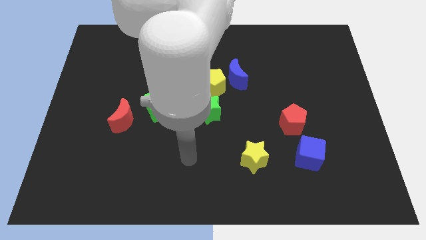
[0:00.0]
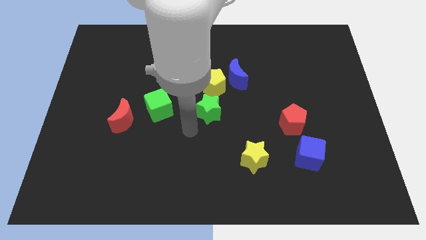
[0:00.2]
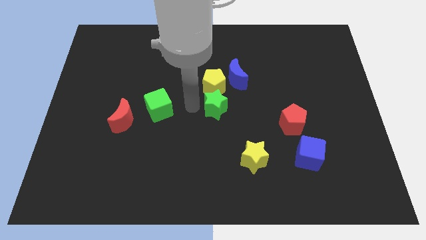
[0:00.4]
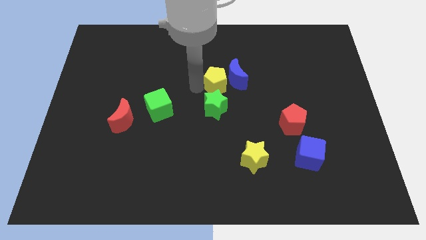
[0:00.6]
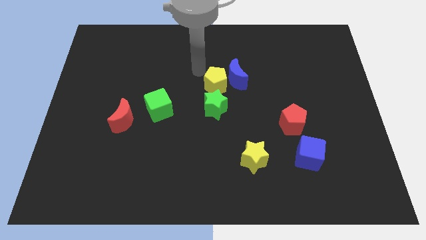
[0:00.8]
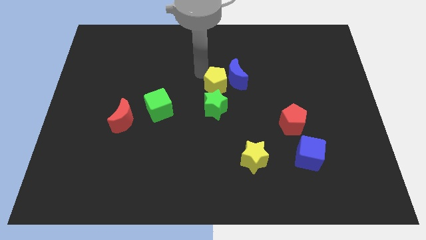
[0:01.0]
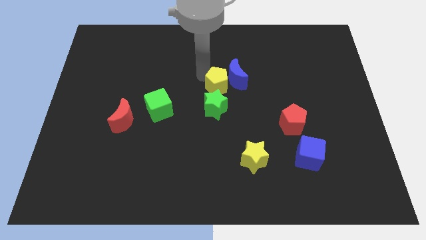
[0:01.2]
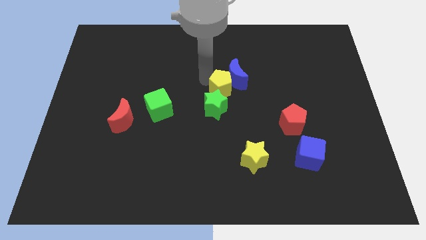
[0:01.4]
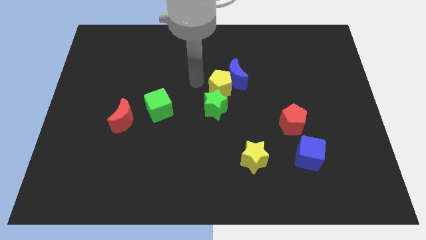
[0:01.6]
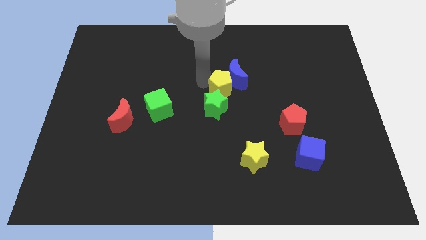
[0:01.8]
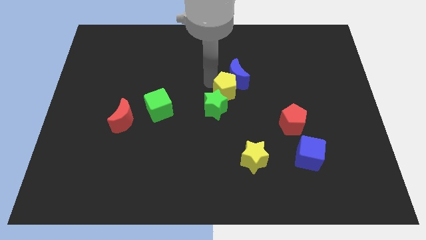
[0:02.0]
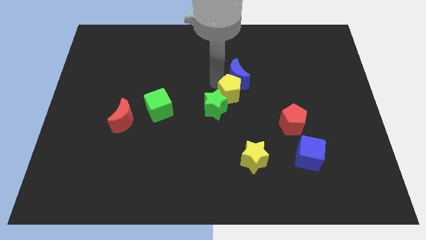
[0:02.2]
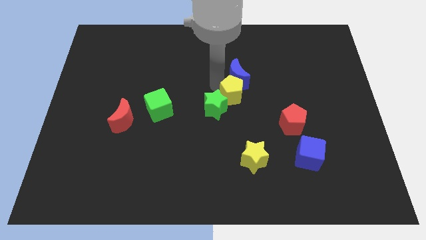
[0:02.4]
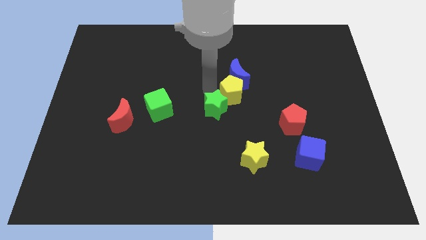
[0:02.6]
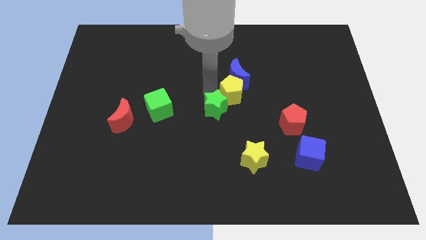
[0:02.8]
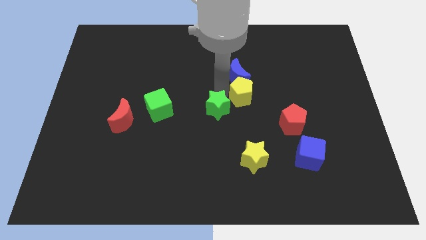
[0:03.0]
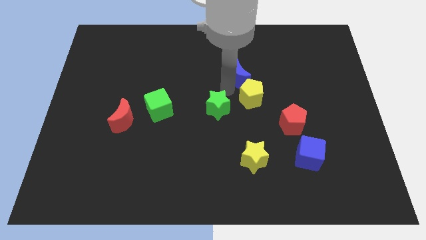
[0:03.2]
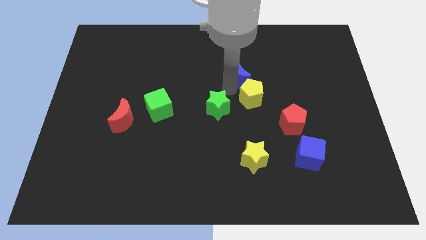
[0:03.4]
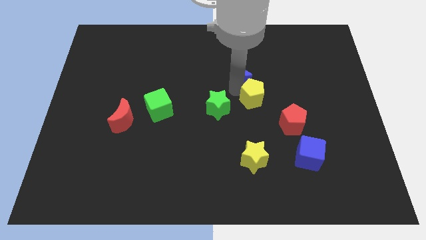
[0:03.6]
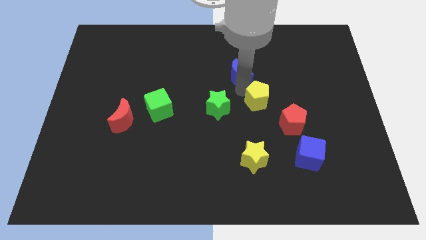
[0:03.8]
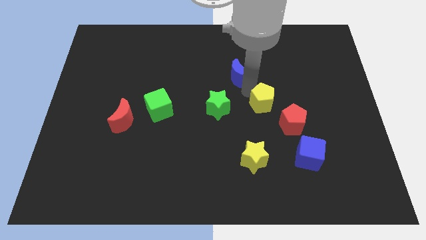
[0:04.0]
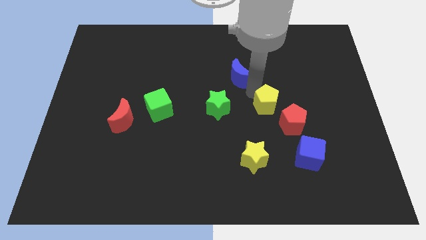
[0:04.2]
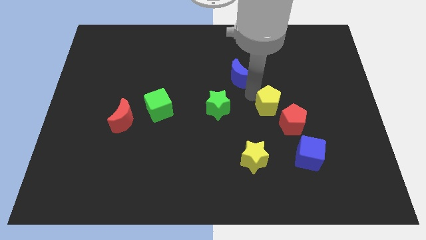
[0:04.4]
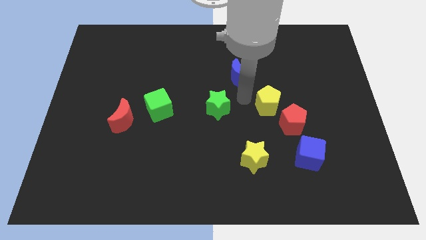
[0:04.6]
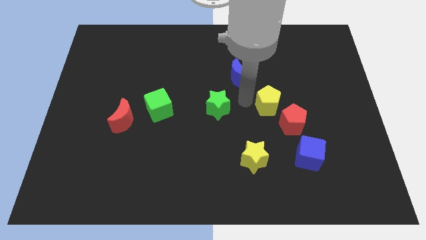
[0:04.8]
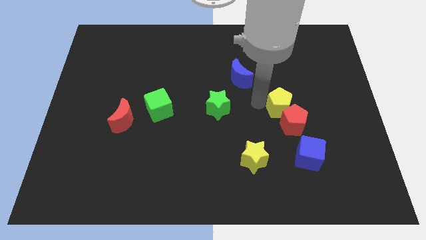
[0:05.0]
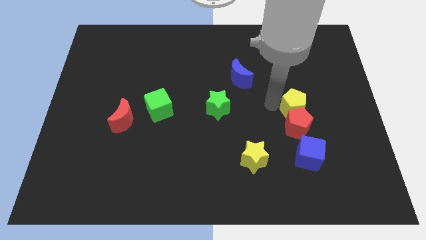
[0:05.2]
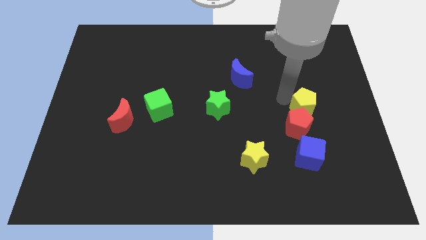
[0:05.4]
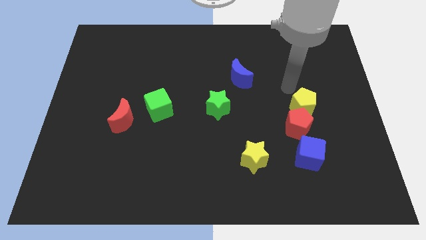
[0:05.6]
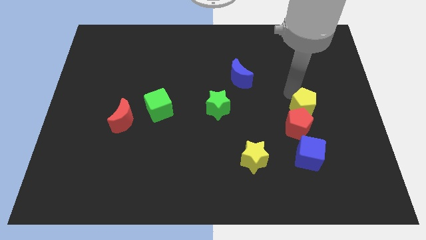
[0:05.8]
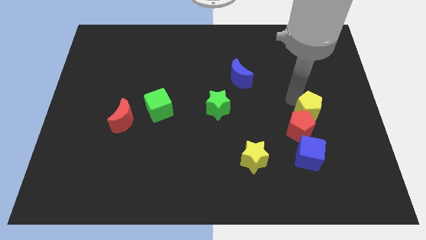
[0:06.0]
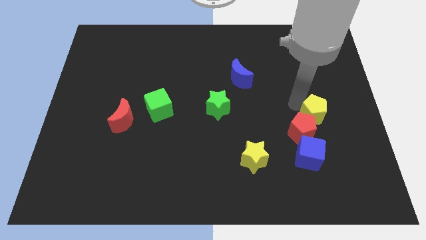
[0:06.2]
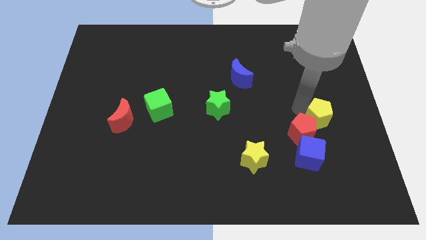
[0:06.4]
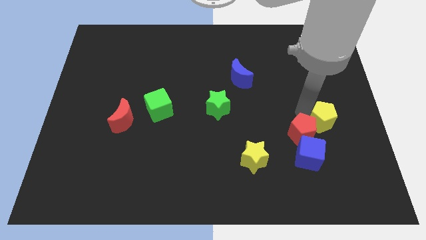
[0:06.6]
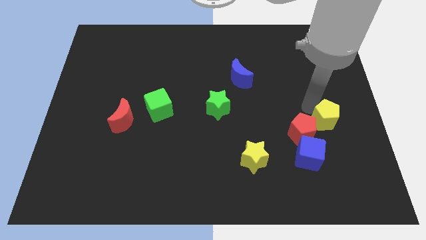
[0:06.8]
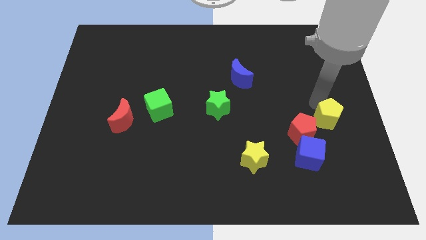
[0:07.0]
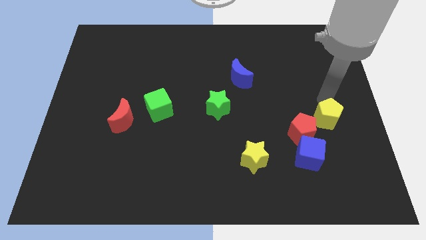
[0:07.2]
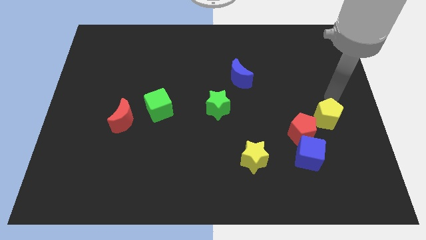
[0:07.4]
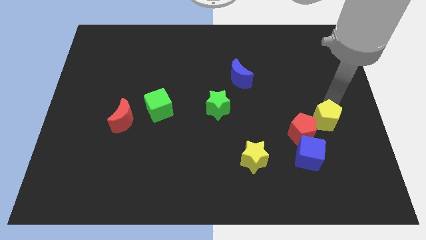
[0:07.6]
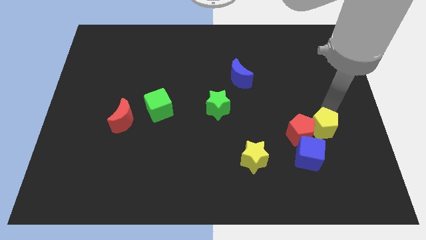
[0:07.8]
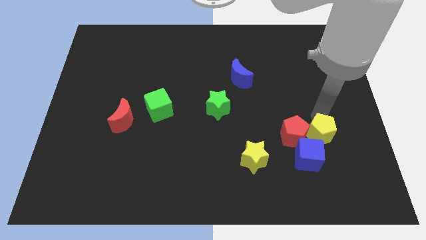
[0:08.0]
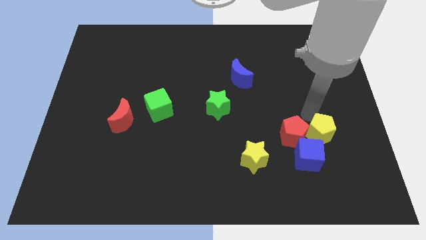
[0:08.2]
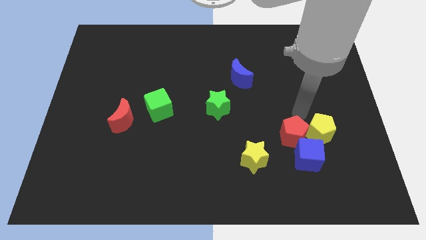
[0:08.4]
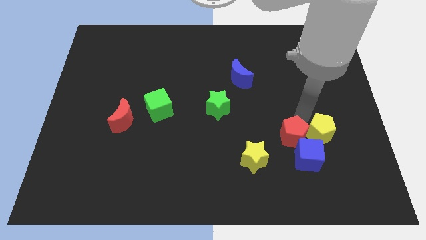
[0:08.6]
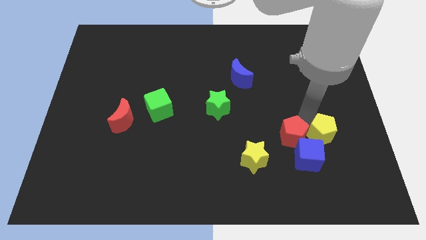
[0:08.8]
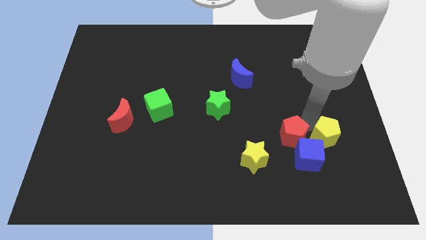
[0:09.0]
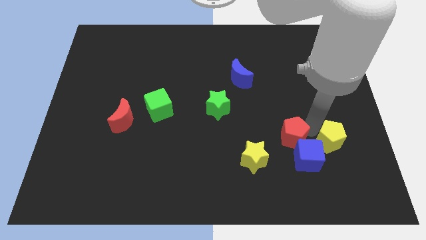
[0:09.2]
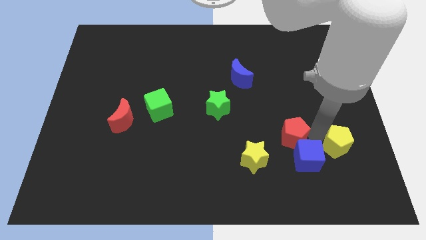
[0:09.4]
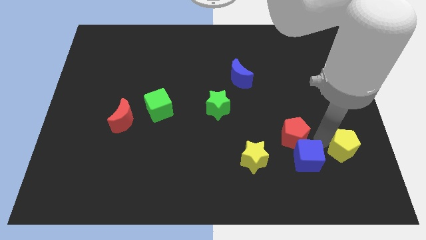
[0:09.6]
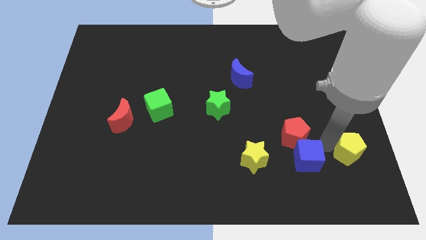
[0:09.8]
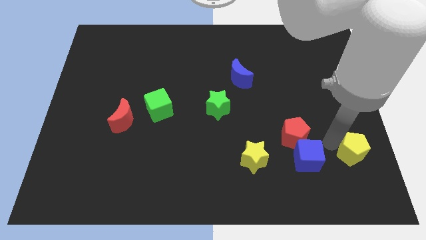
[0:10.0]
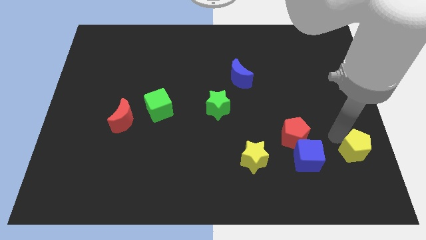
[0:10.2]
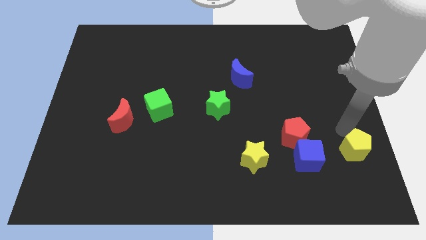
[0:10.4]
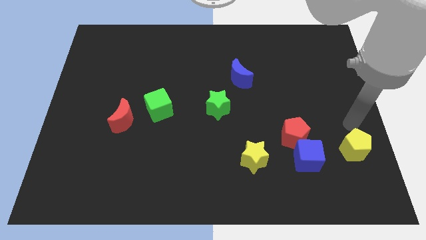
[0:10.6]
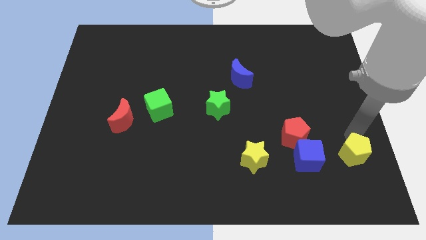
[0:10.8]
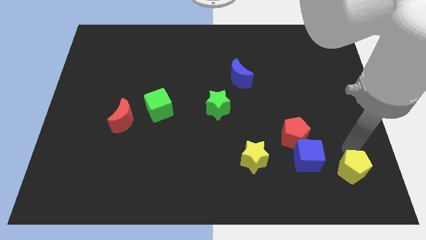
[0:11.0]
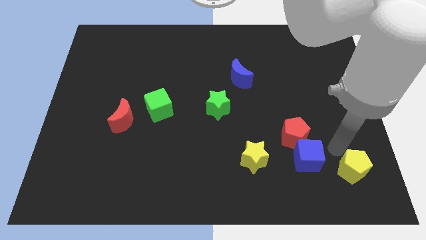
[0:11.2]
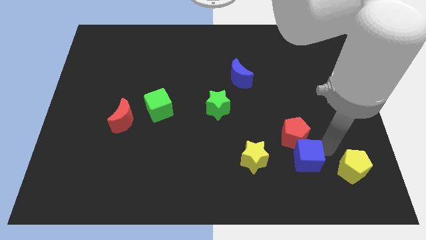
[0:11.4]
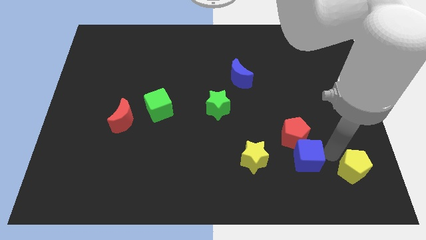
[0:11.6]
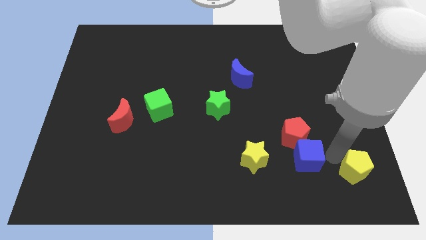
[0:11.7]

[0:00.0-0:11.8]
push the yellow pentagon to the bottom right of the board

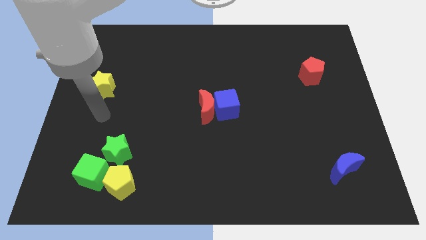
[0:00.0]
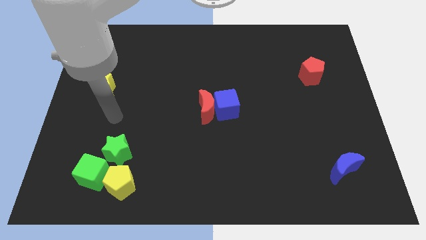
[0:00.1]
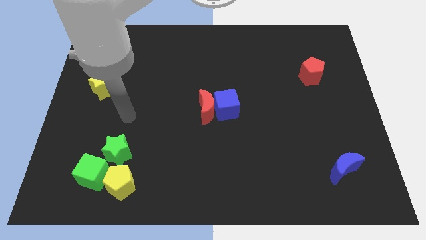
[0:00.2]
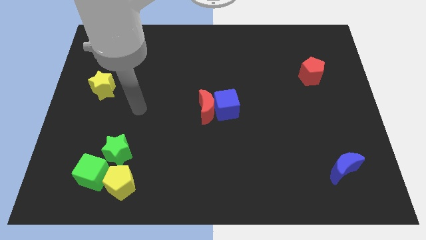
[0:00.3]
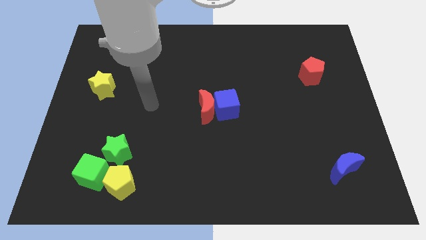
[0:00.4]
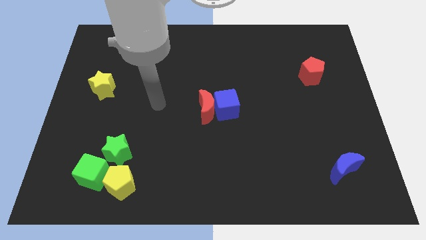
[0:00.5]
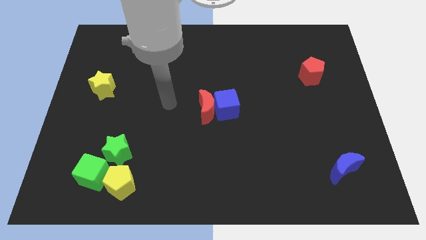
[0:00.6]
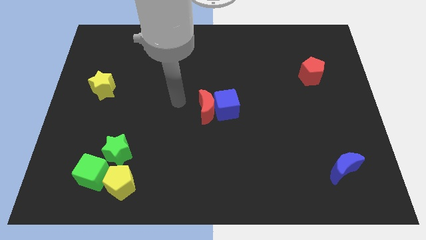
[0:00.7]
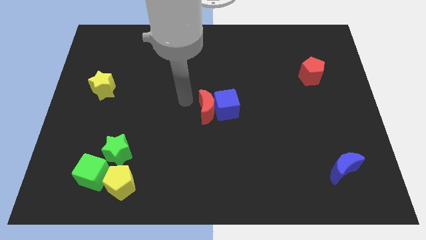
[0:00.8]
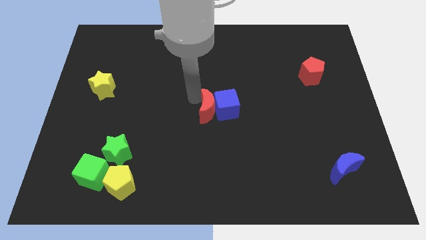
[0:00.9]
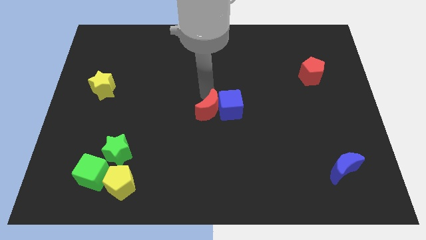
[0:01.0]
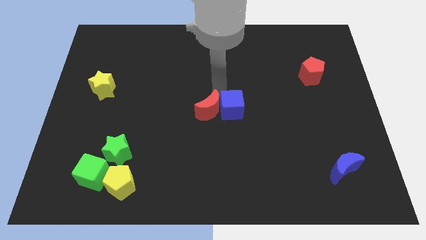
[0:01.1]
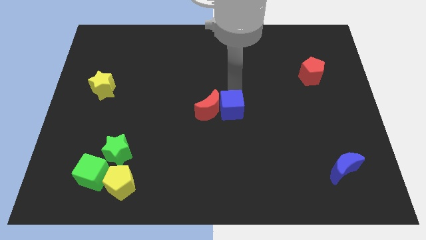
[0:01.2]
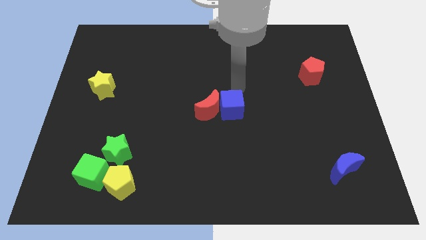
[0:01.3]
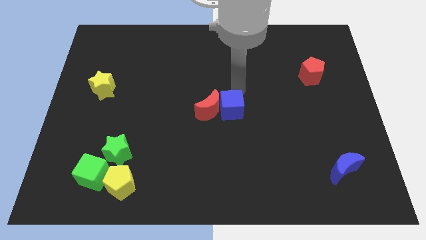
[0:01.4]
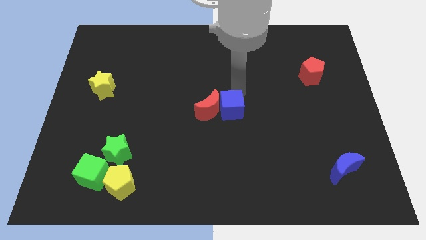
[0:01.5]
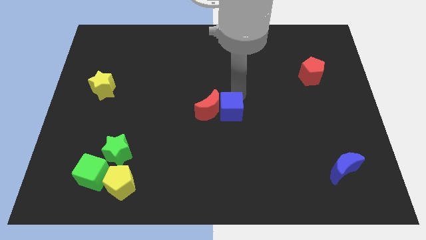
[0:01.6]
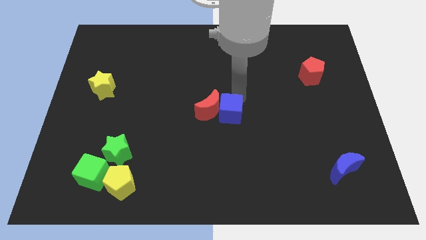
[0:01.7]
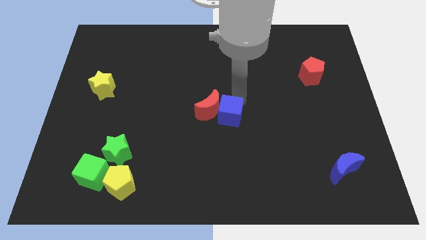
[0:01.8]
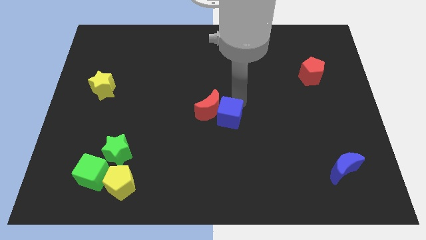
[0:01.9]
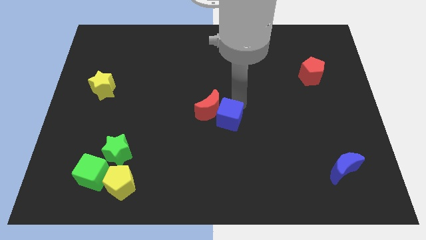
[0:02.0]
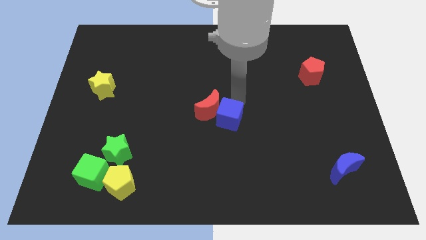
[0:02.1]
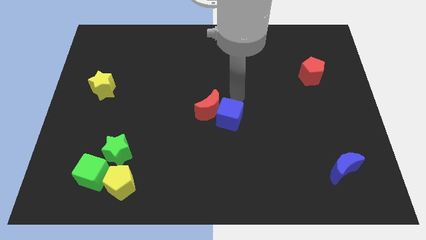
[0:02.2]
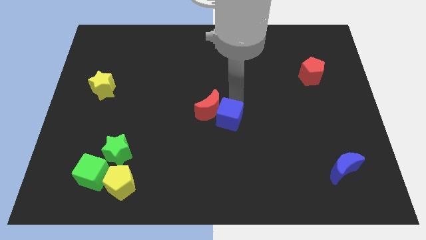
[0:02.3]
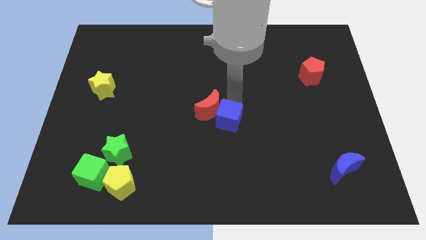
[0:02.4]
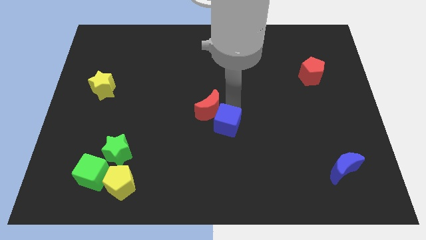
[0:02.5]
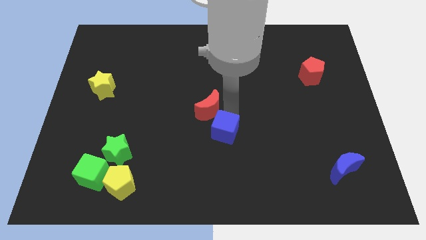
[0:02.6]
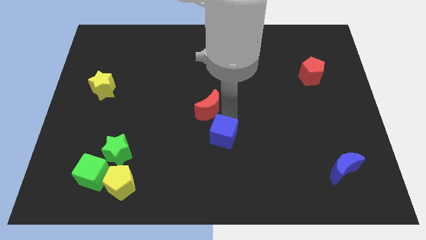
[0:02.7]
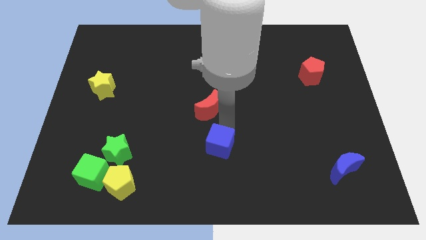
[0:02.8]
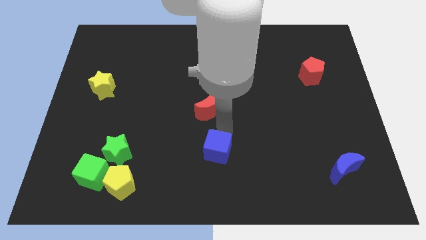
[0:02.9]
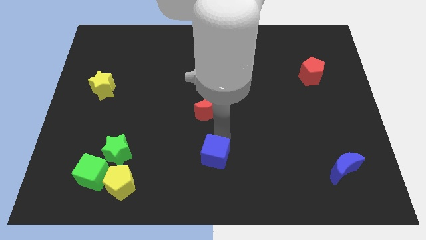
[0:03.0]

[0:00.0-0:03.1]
put the blue cube to the bottom side
